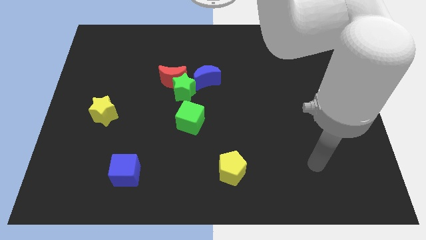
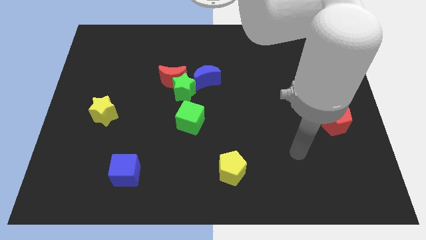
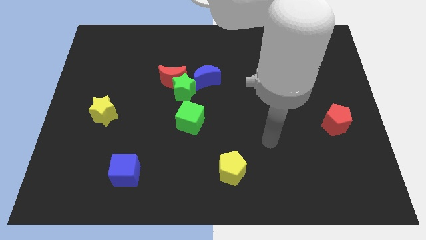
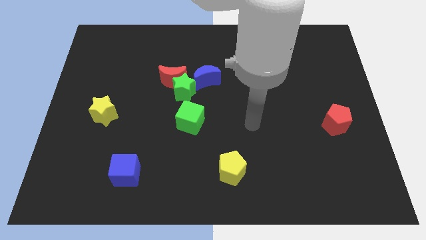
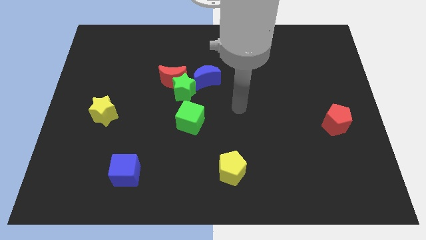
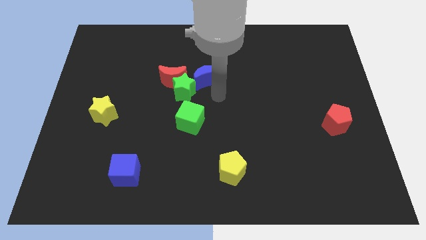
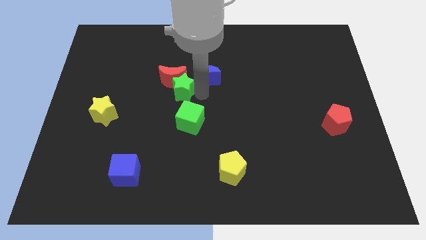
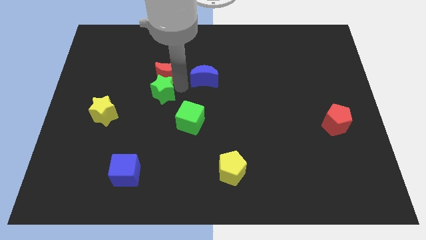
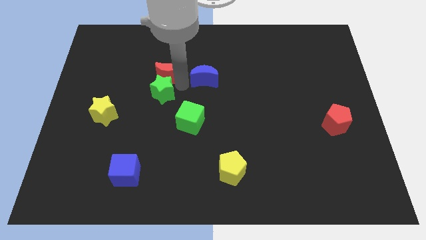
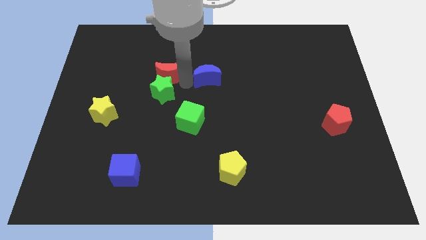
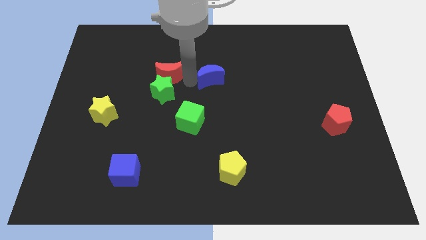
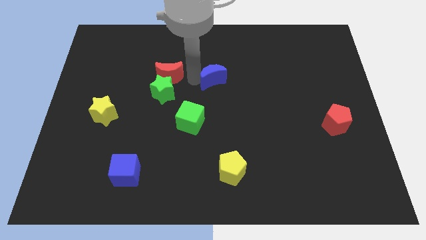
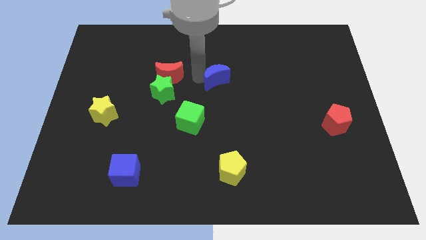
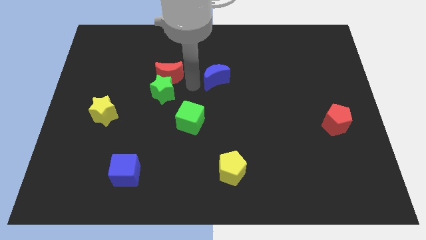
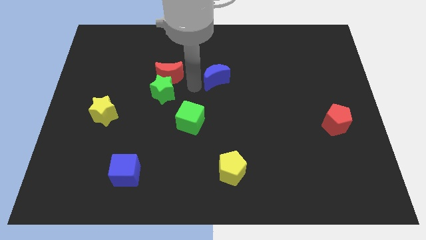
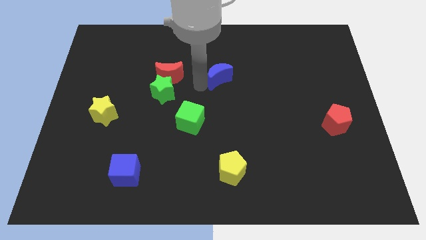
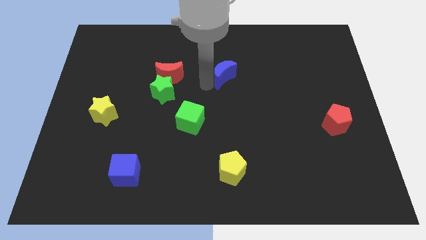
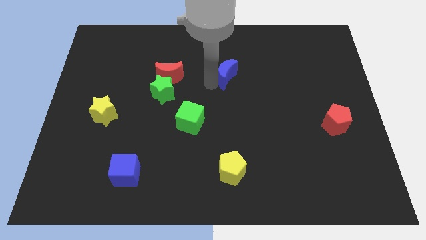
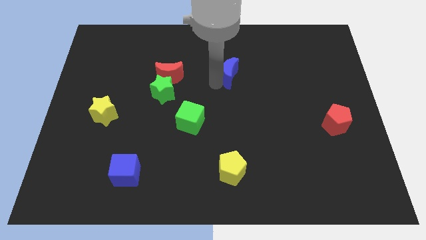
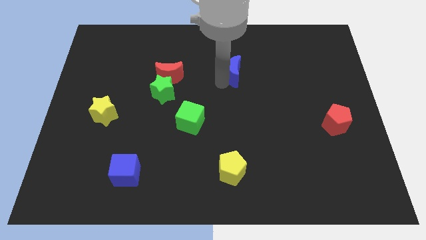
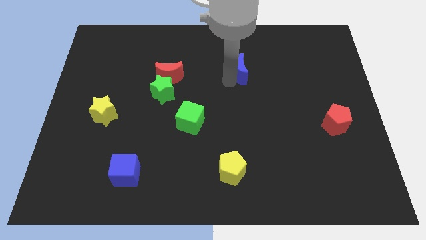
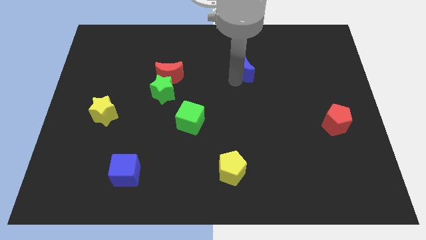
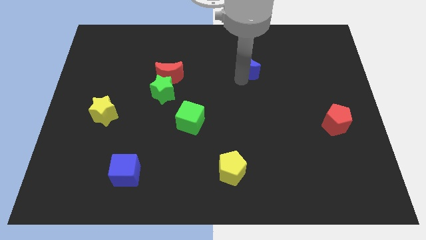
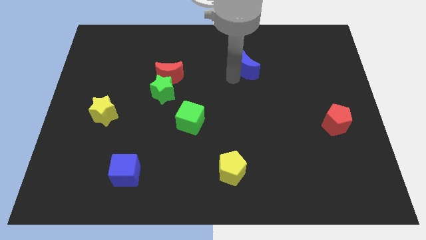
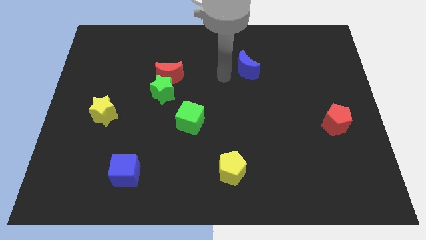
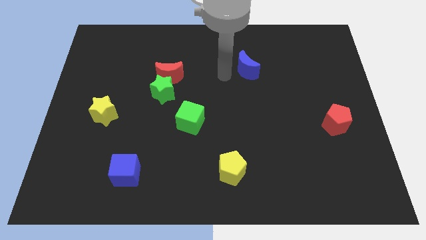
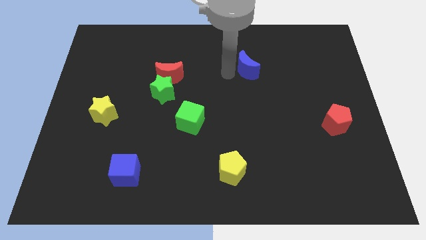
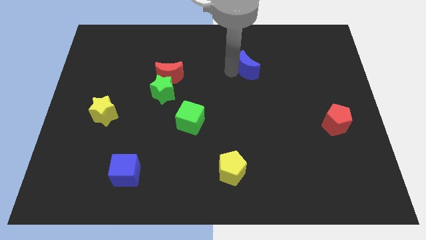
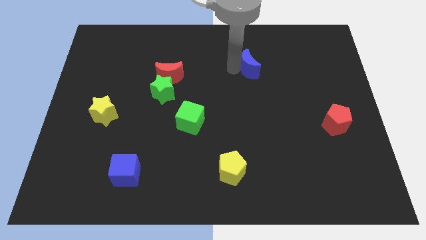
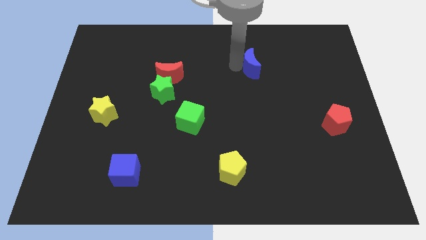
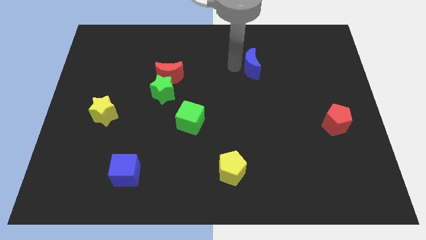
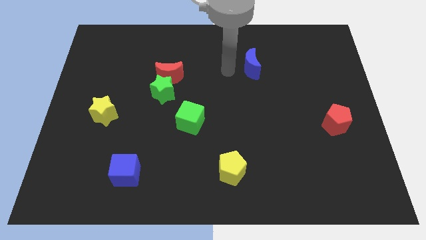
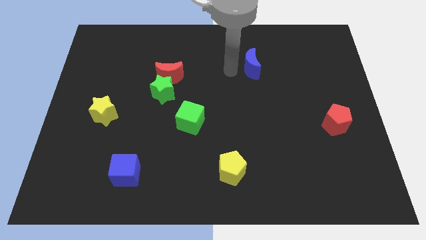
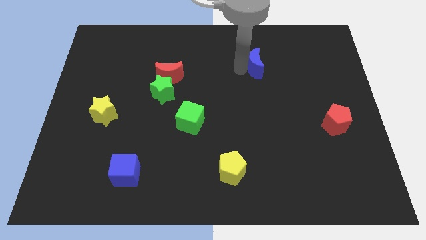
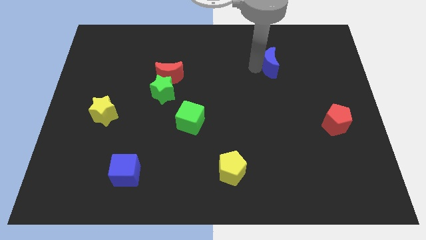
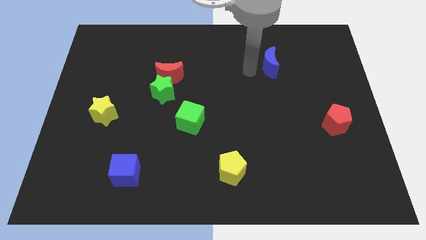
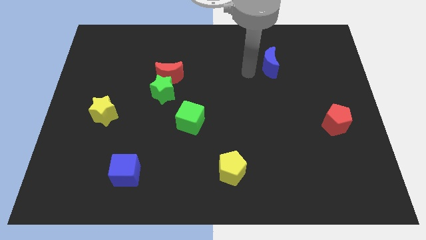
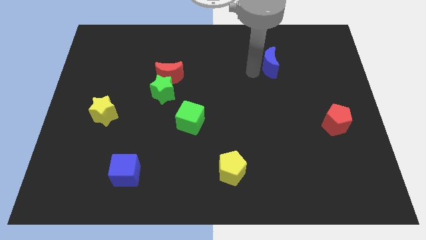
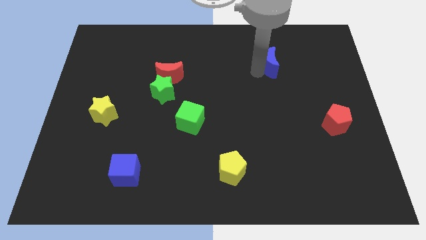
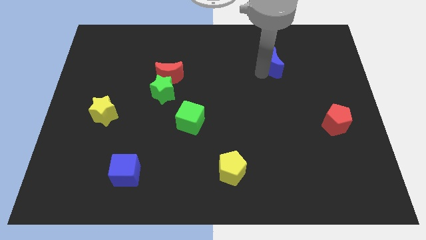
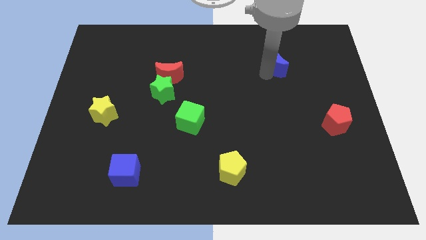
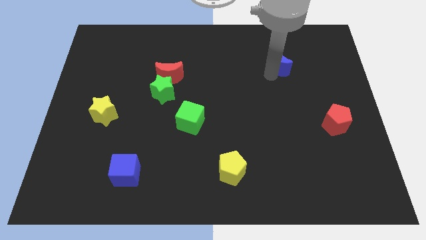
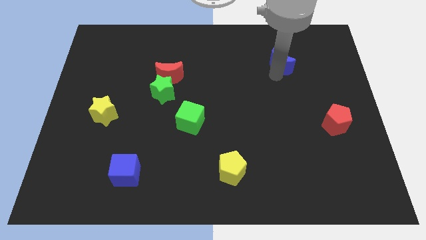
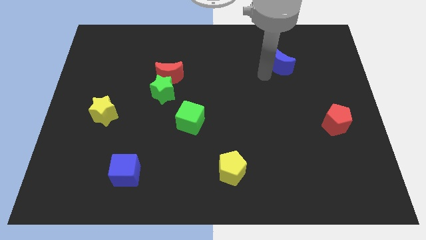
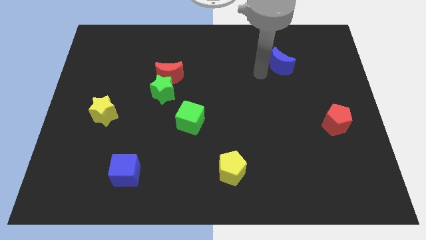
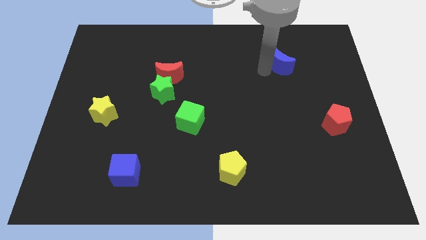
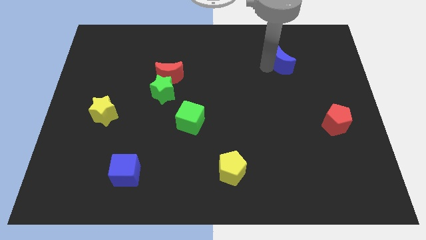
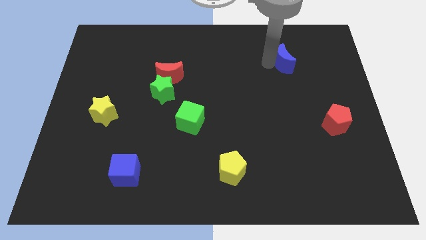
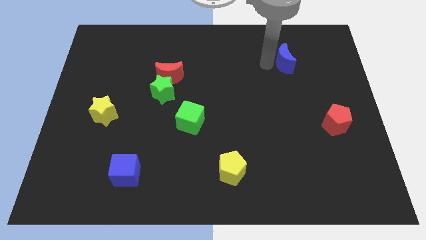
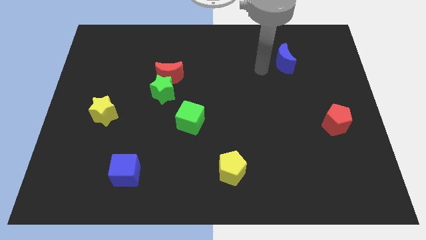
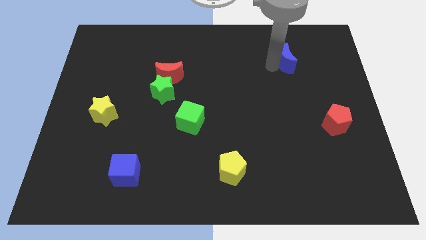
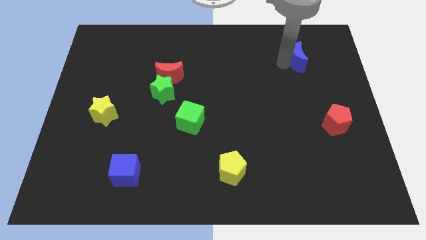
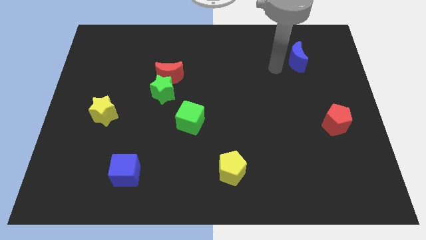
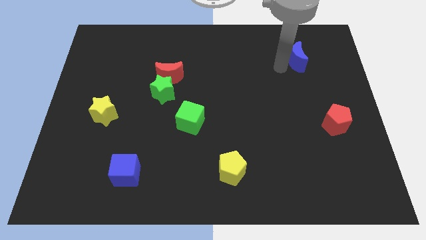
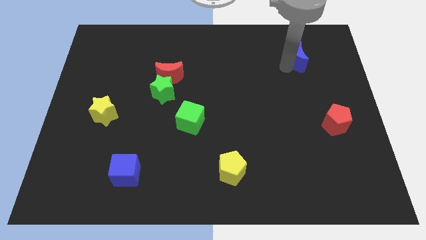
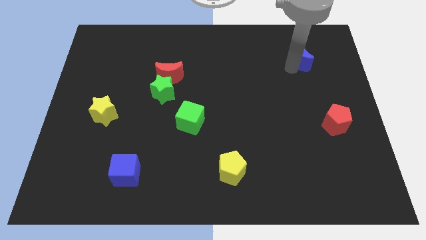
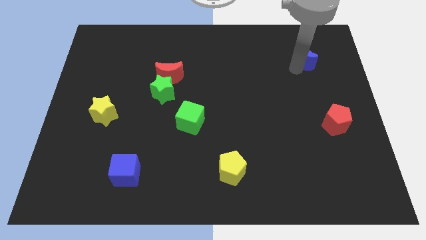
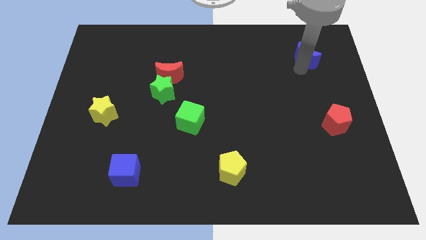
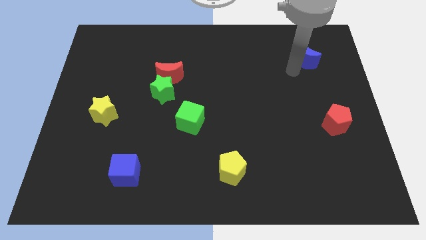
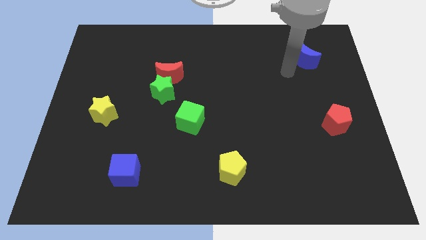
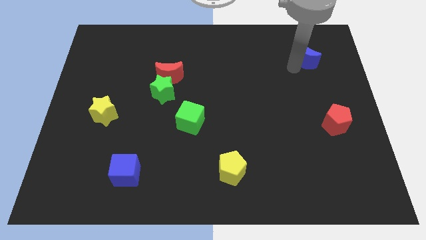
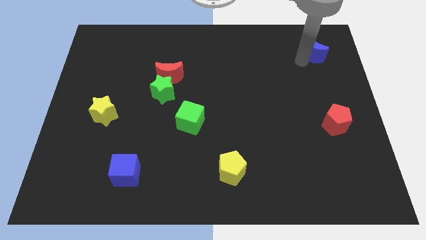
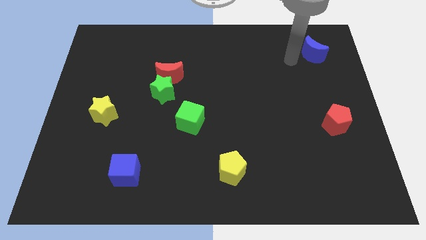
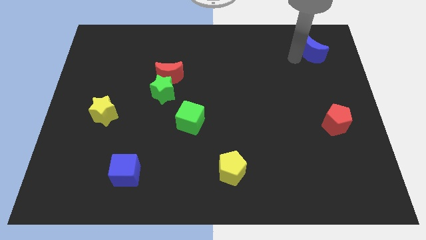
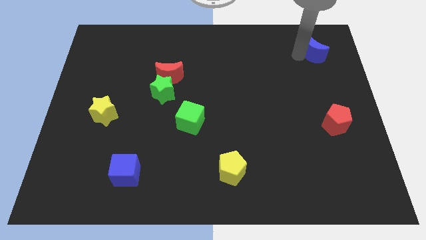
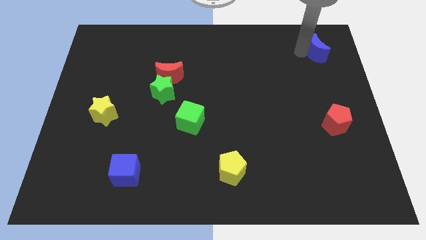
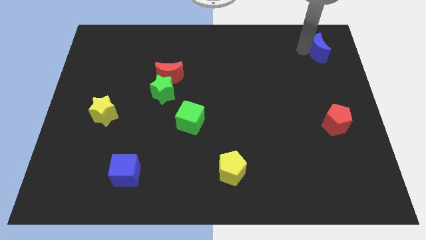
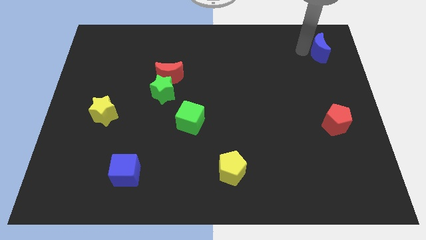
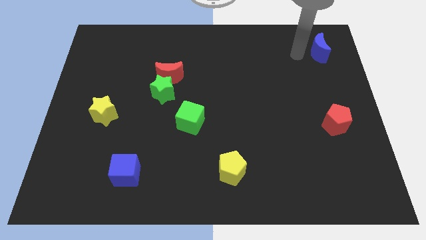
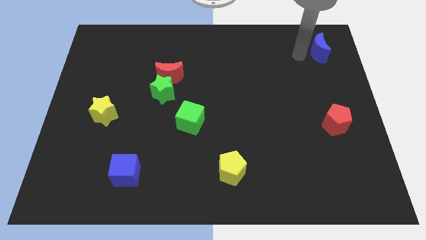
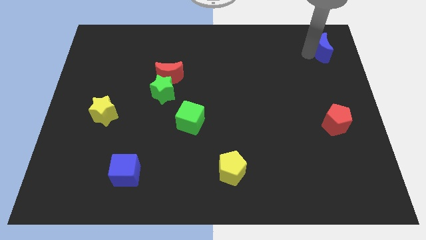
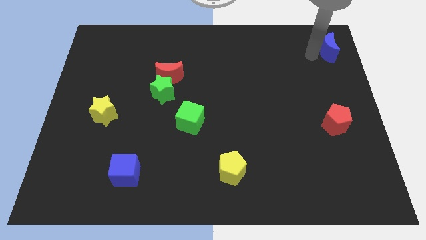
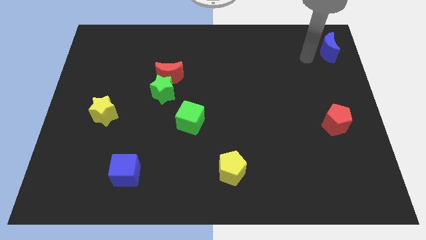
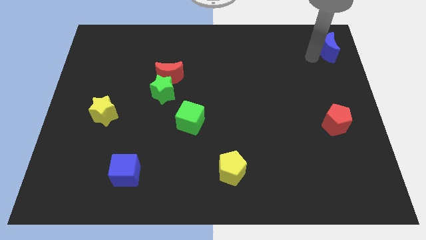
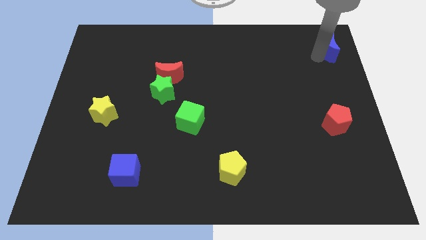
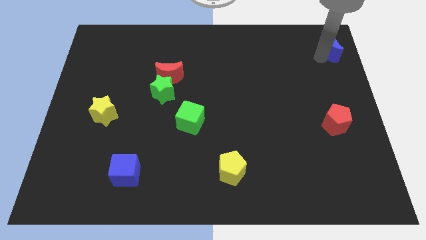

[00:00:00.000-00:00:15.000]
slide the blue moon to the top right
